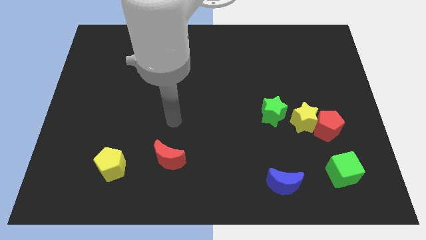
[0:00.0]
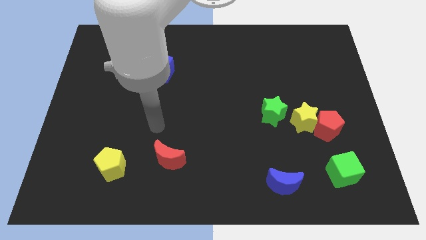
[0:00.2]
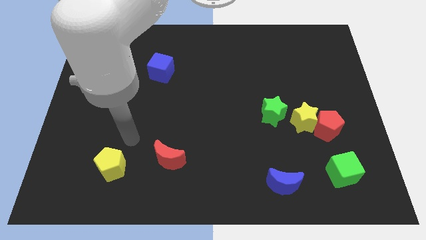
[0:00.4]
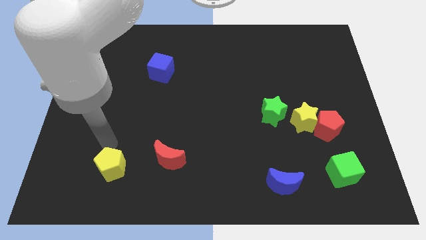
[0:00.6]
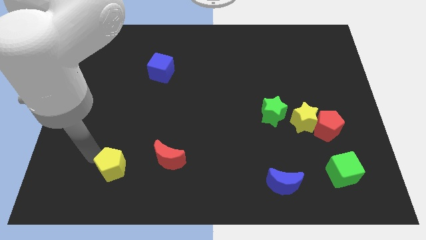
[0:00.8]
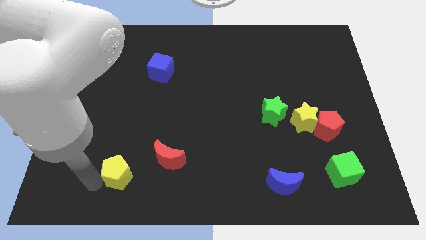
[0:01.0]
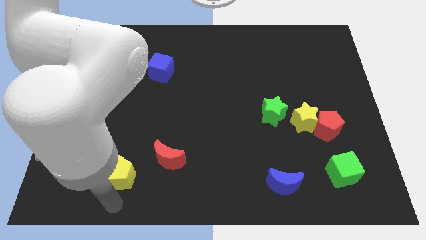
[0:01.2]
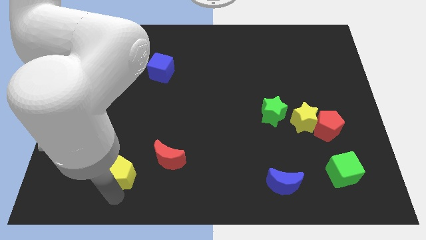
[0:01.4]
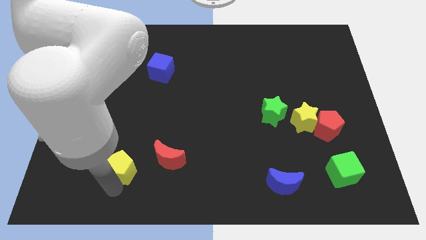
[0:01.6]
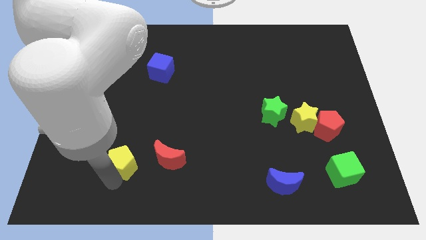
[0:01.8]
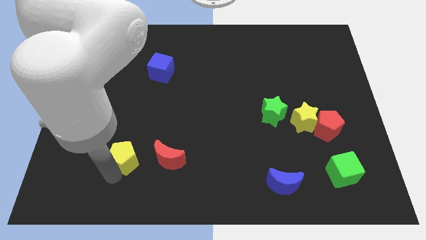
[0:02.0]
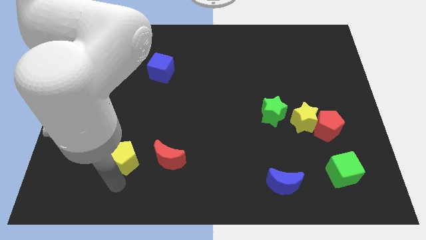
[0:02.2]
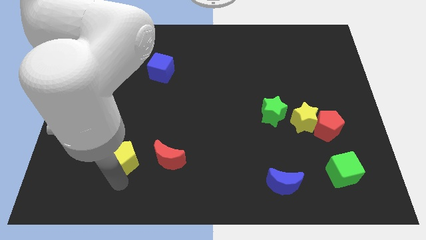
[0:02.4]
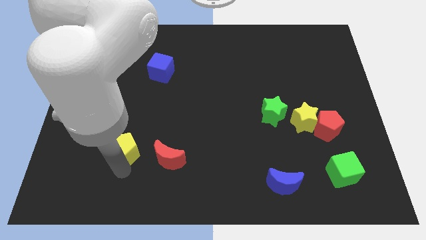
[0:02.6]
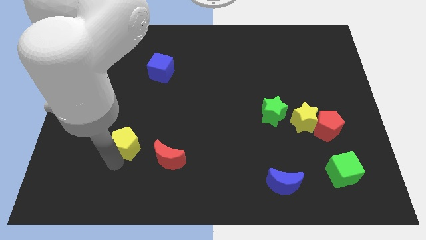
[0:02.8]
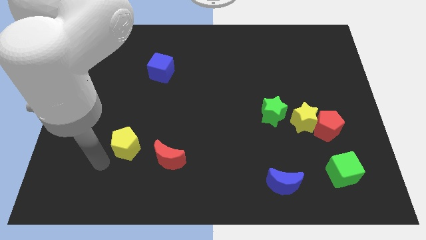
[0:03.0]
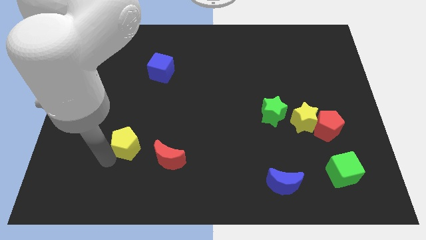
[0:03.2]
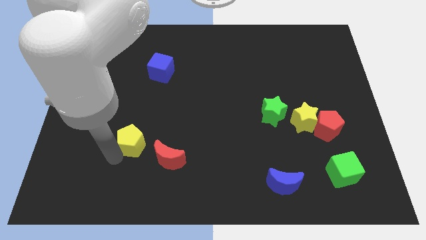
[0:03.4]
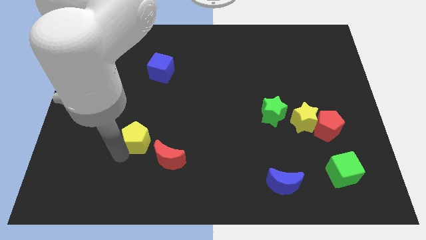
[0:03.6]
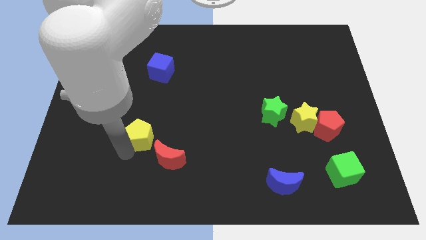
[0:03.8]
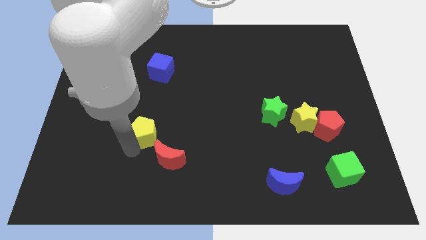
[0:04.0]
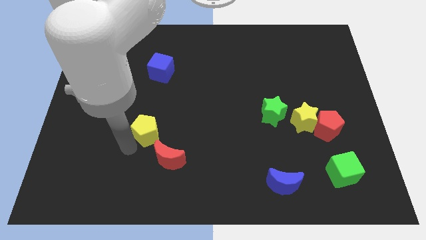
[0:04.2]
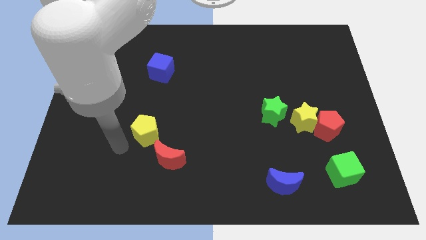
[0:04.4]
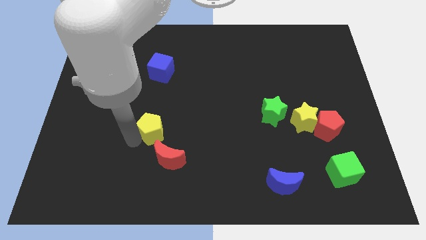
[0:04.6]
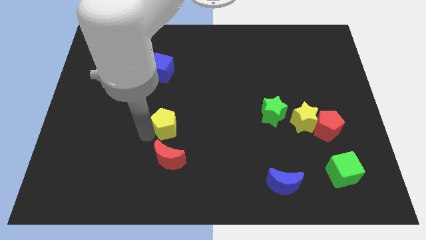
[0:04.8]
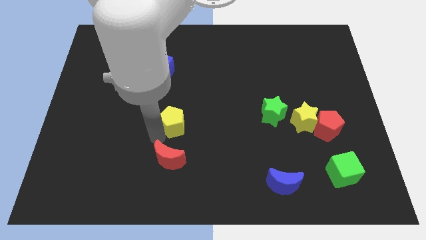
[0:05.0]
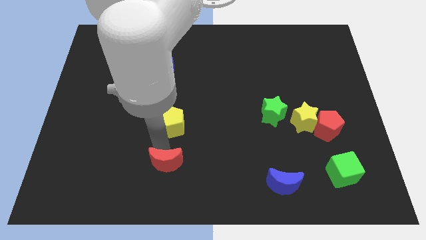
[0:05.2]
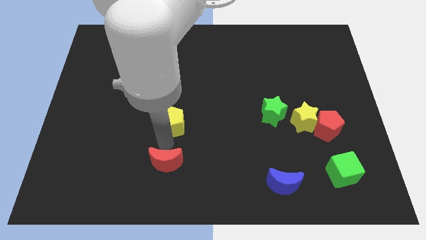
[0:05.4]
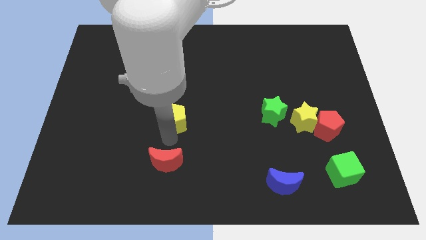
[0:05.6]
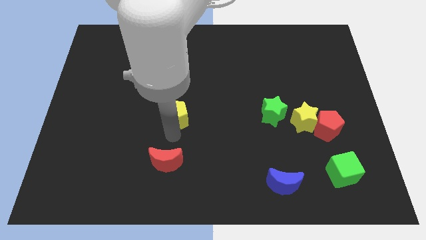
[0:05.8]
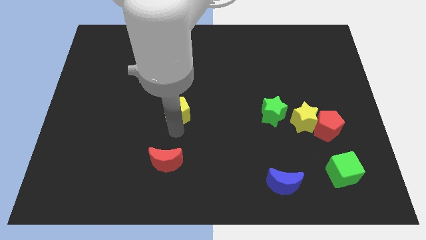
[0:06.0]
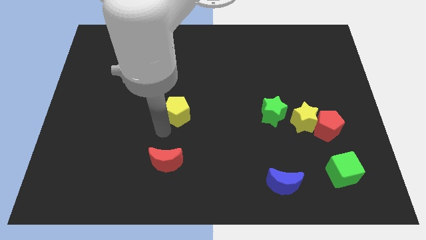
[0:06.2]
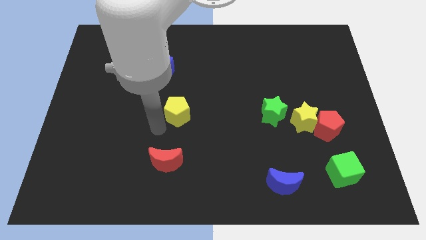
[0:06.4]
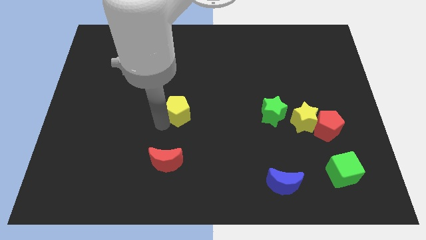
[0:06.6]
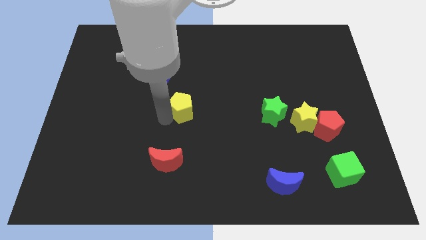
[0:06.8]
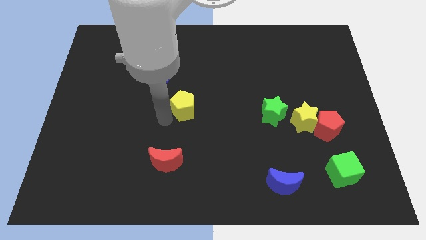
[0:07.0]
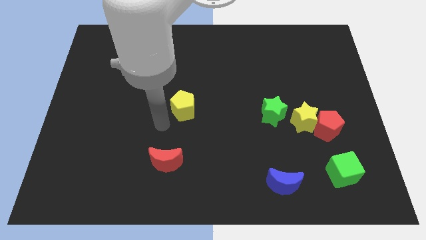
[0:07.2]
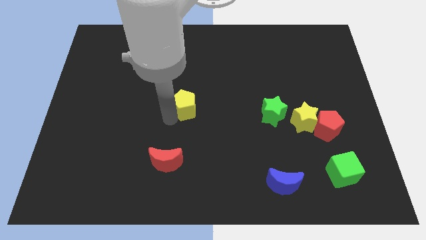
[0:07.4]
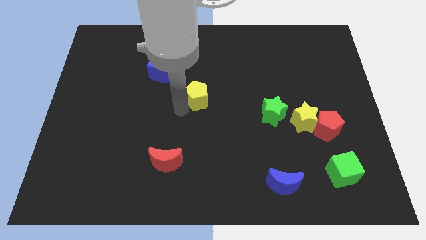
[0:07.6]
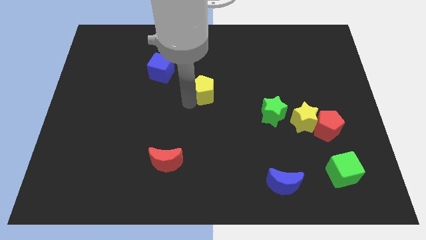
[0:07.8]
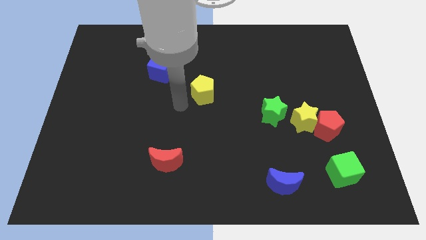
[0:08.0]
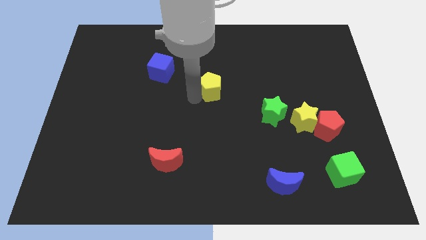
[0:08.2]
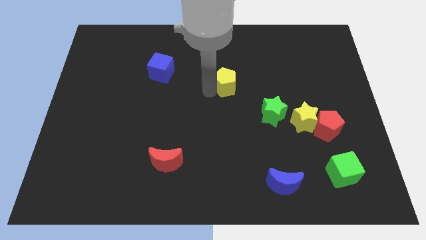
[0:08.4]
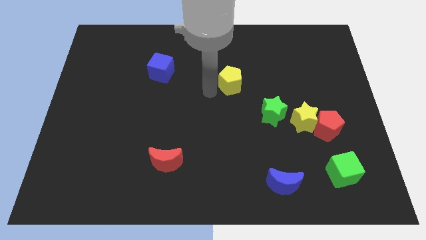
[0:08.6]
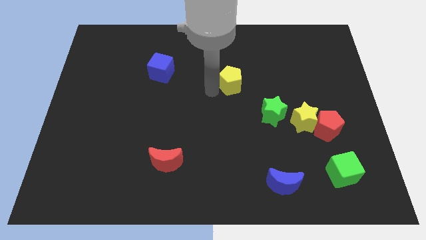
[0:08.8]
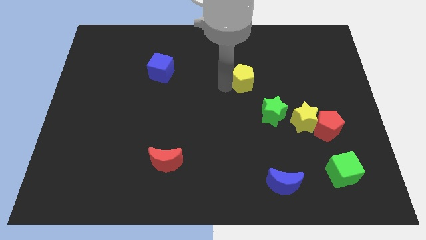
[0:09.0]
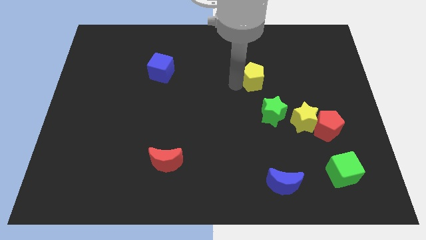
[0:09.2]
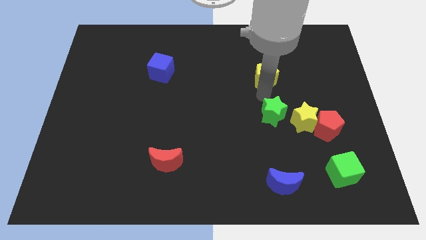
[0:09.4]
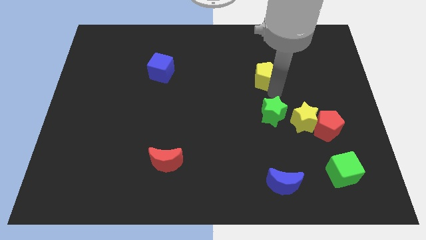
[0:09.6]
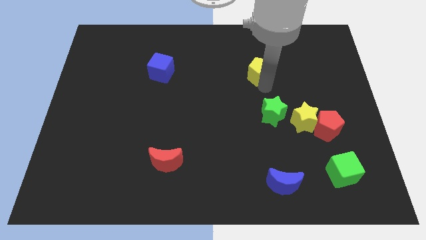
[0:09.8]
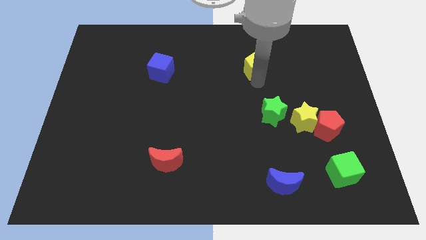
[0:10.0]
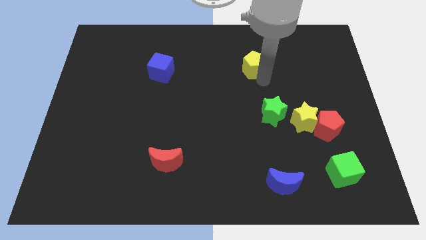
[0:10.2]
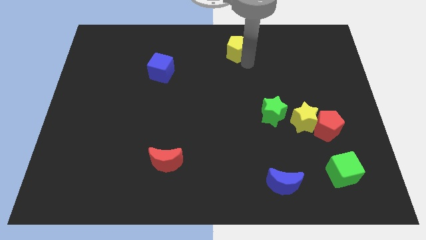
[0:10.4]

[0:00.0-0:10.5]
push the yellow pentagon to the top side

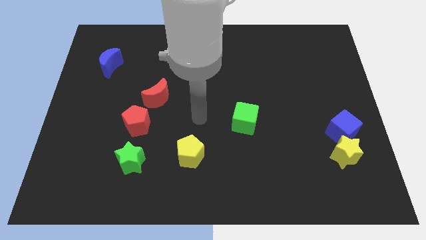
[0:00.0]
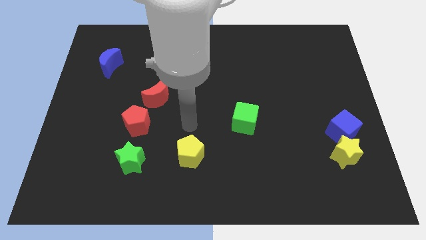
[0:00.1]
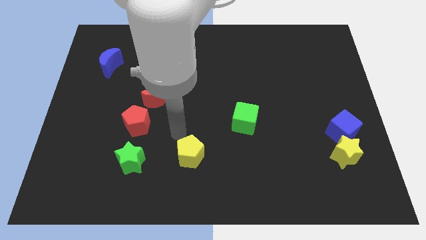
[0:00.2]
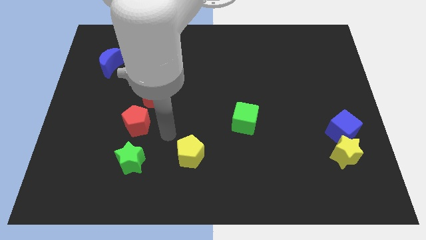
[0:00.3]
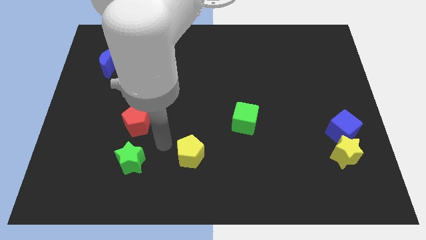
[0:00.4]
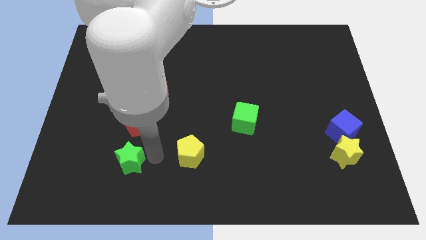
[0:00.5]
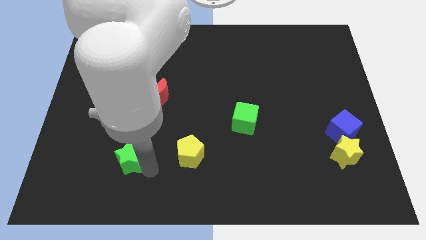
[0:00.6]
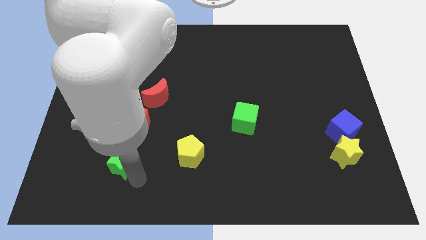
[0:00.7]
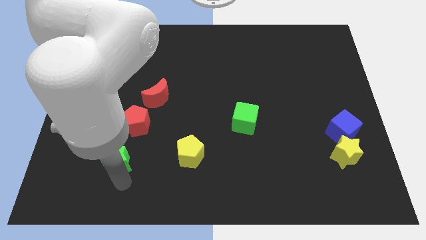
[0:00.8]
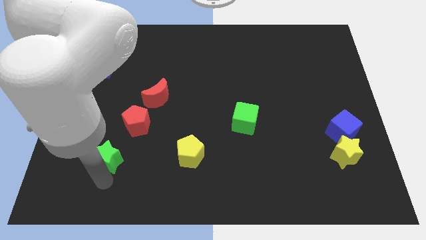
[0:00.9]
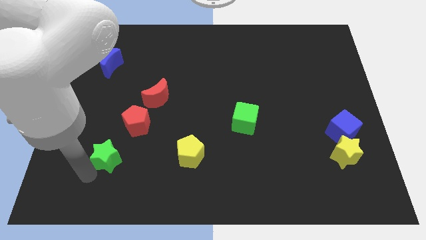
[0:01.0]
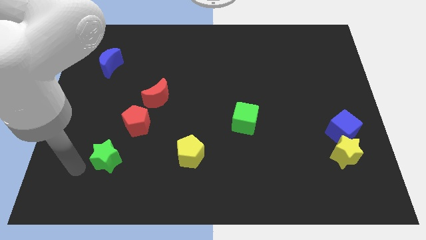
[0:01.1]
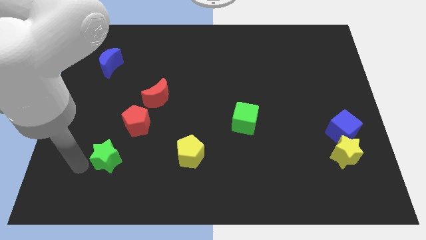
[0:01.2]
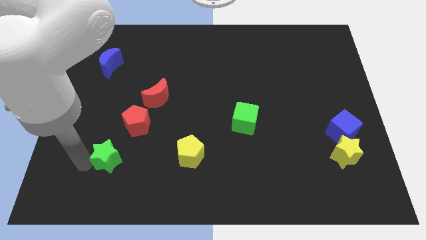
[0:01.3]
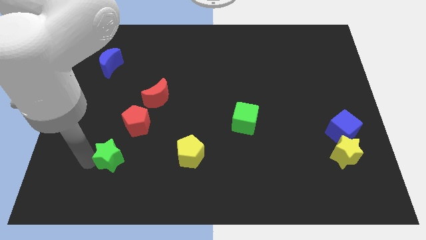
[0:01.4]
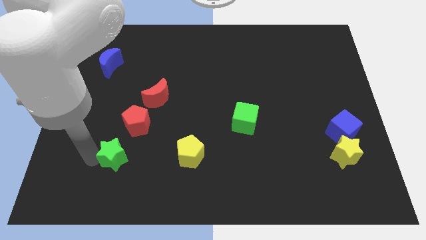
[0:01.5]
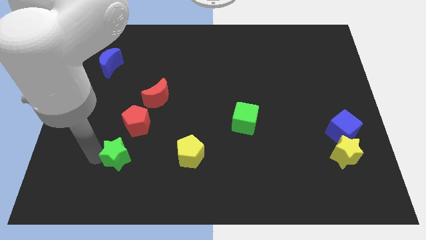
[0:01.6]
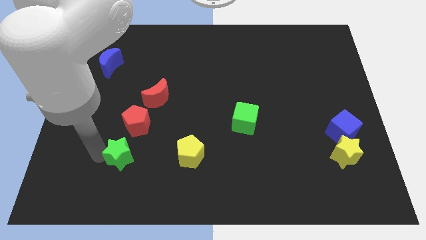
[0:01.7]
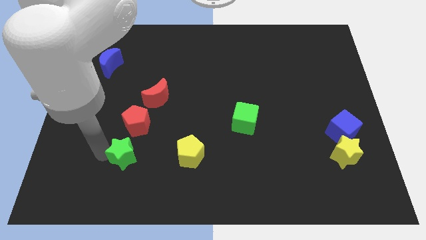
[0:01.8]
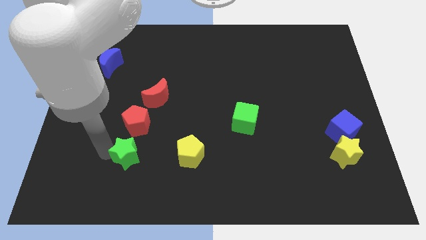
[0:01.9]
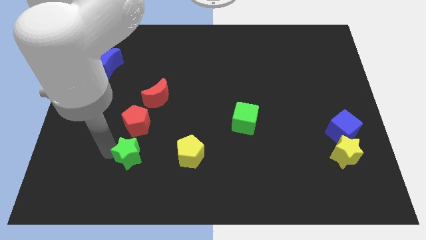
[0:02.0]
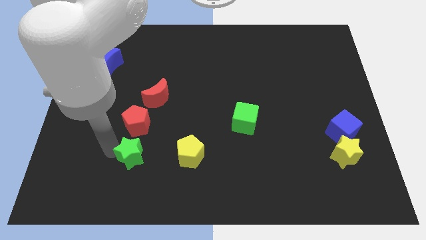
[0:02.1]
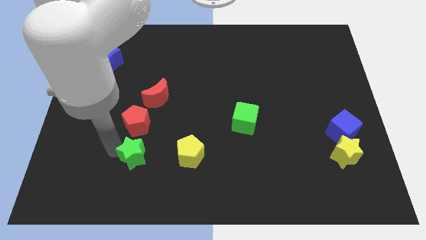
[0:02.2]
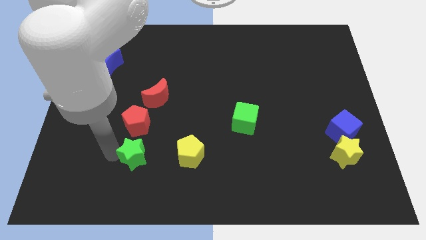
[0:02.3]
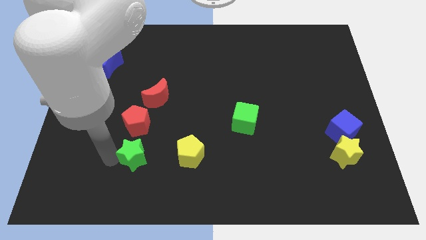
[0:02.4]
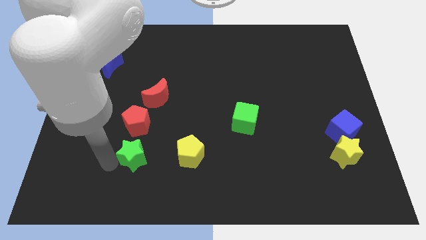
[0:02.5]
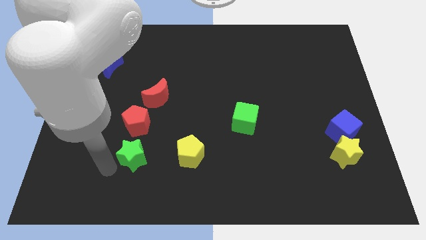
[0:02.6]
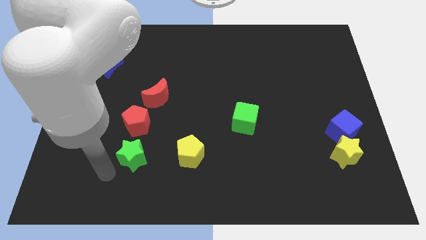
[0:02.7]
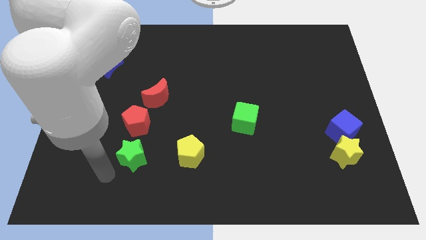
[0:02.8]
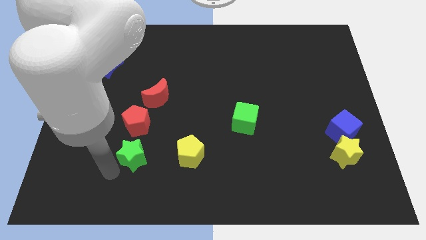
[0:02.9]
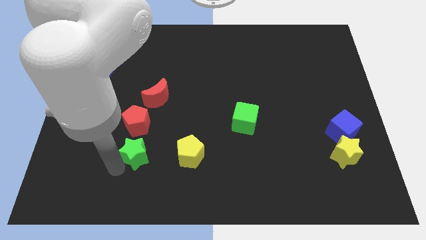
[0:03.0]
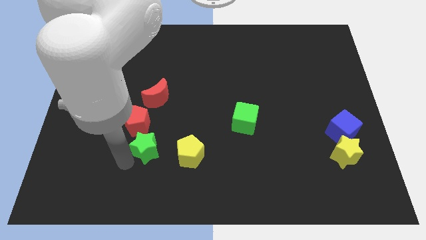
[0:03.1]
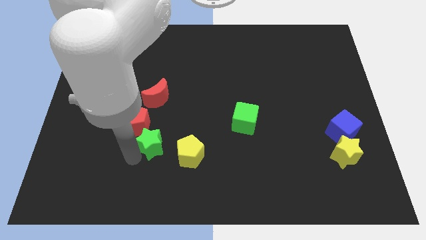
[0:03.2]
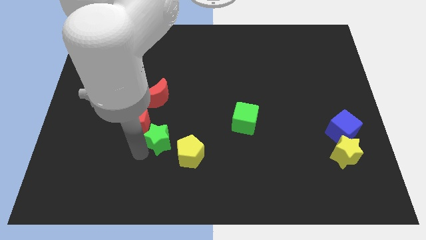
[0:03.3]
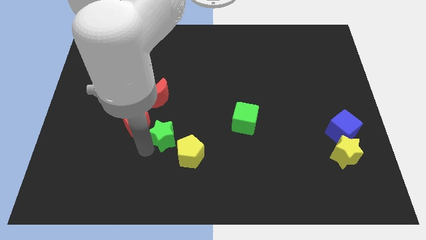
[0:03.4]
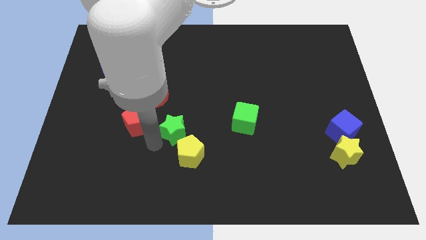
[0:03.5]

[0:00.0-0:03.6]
put the green star to the center
